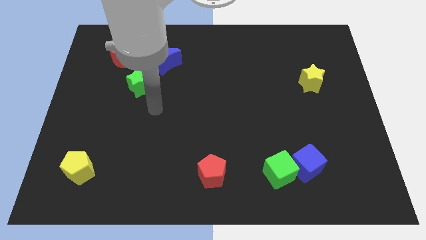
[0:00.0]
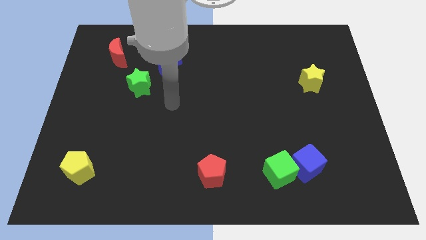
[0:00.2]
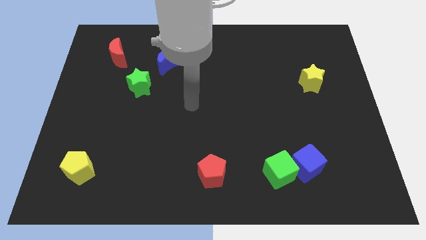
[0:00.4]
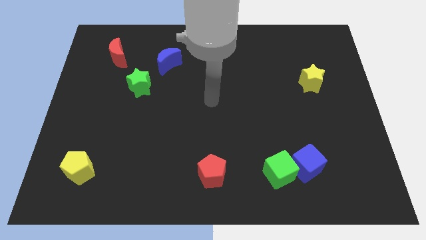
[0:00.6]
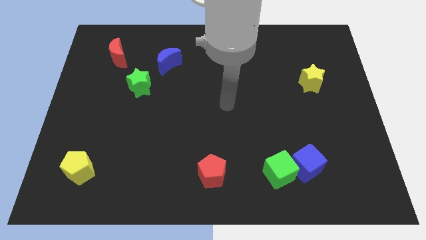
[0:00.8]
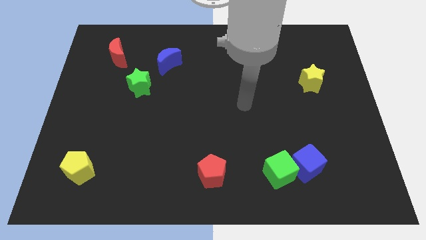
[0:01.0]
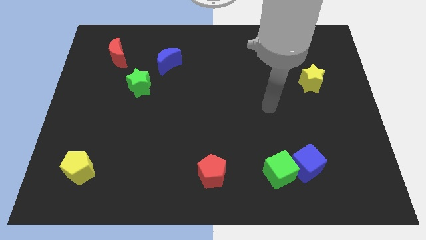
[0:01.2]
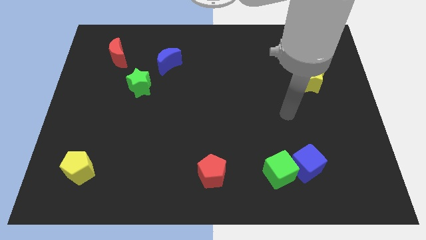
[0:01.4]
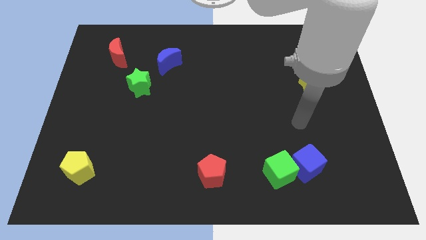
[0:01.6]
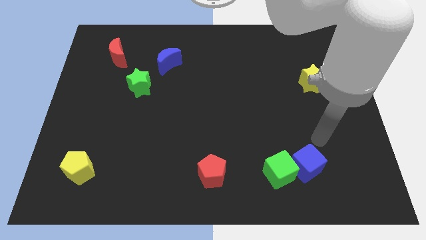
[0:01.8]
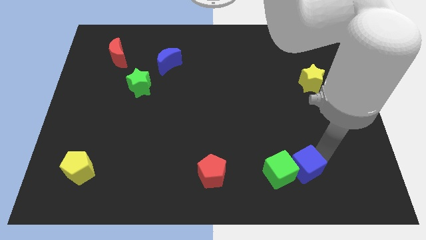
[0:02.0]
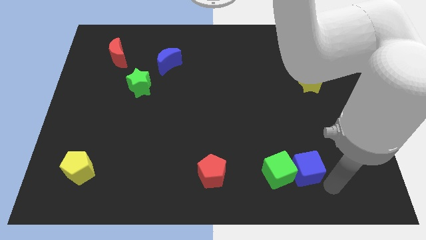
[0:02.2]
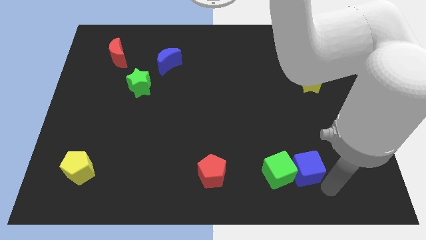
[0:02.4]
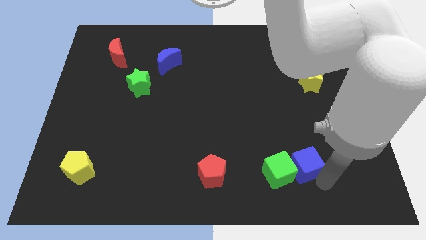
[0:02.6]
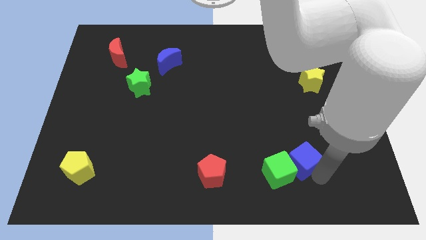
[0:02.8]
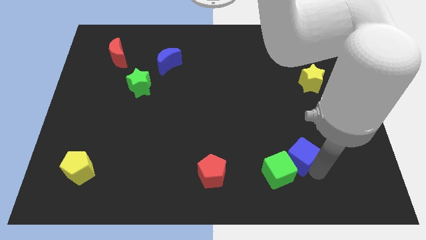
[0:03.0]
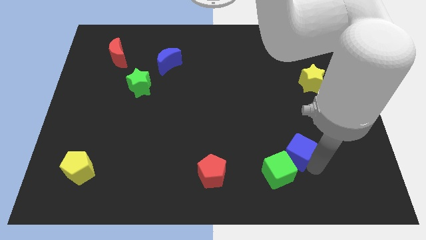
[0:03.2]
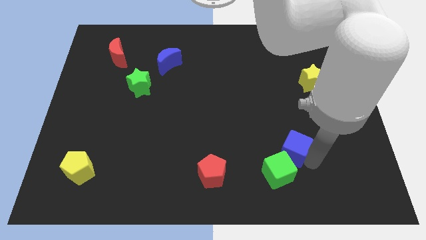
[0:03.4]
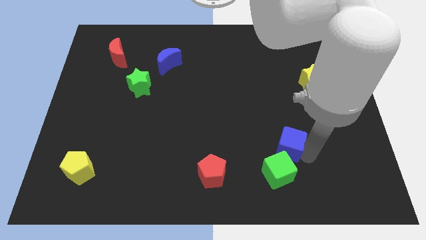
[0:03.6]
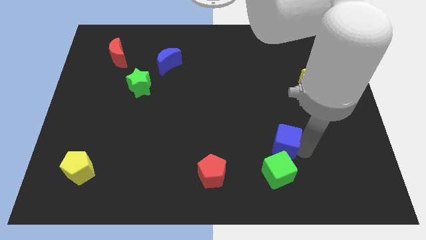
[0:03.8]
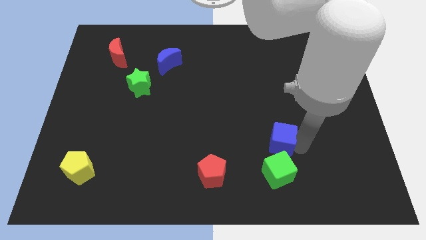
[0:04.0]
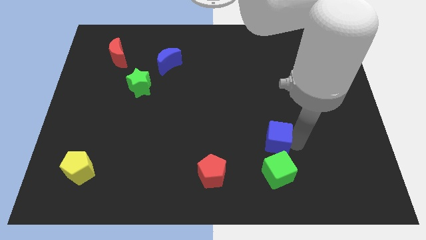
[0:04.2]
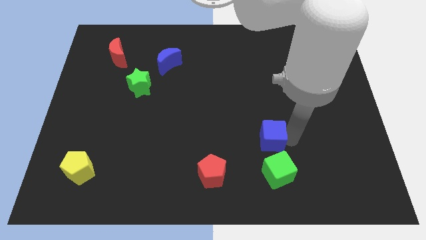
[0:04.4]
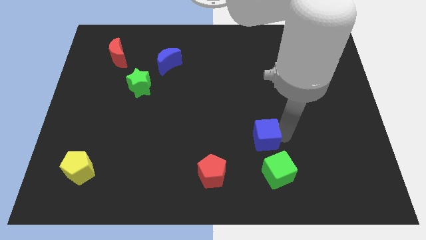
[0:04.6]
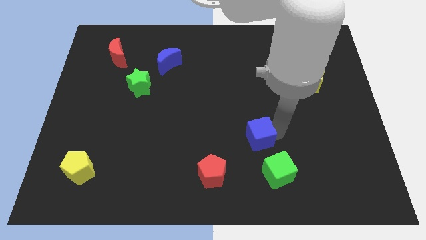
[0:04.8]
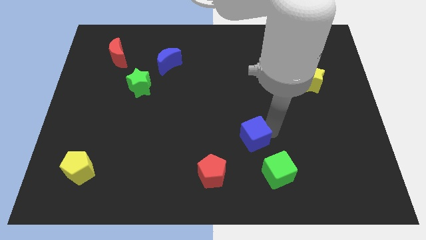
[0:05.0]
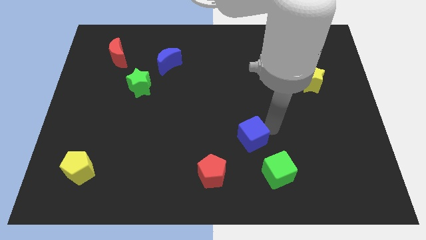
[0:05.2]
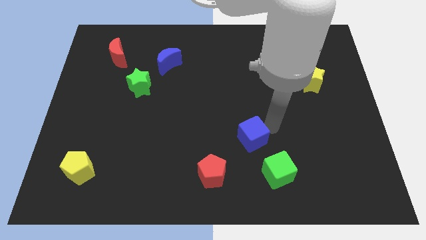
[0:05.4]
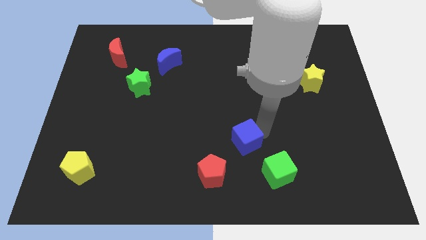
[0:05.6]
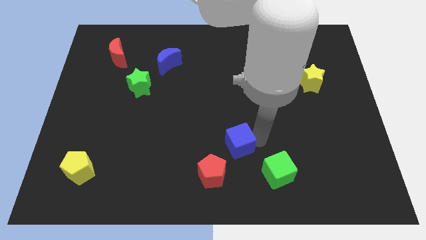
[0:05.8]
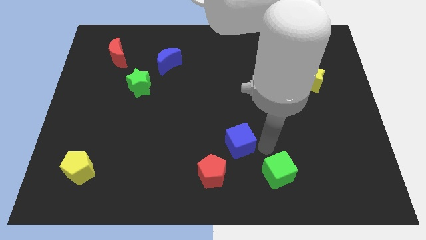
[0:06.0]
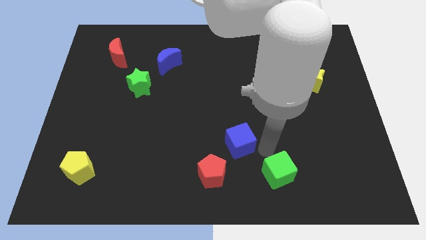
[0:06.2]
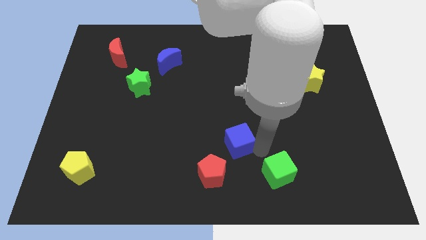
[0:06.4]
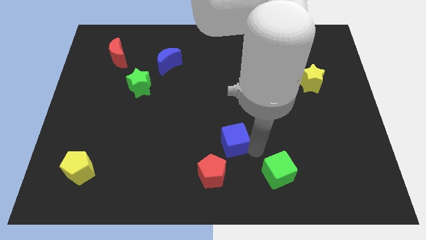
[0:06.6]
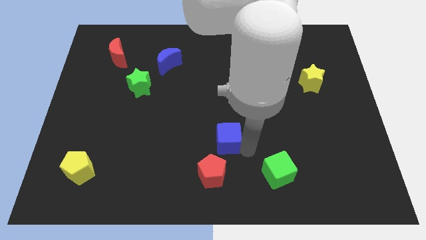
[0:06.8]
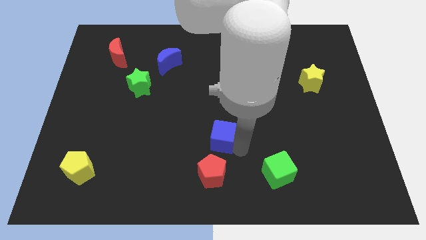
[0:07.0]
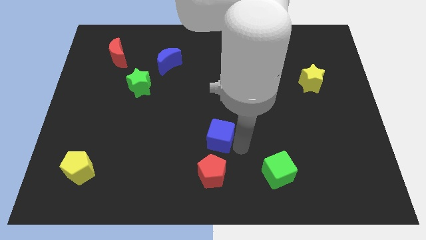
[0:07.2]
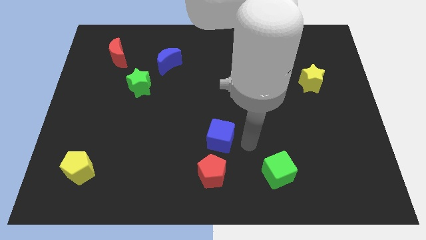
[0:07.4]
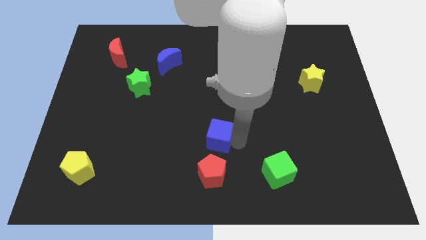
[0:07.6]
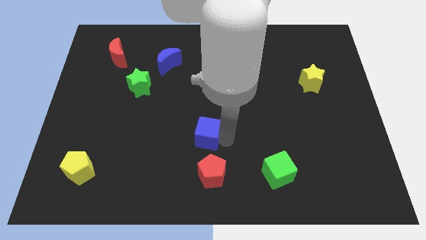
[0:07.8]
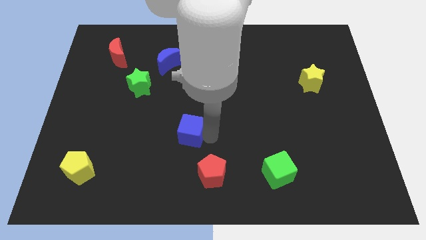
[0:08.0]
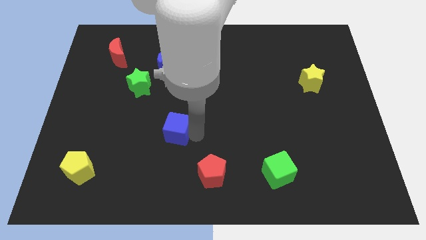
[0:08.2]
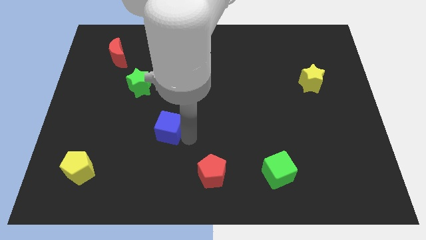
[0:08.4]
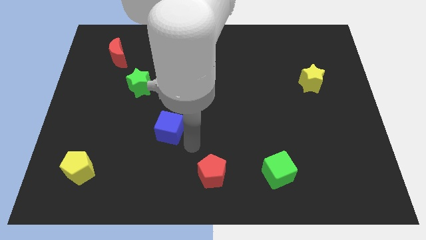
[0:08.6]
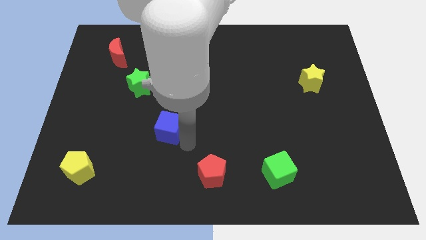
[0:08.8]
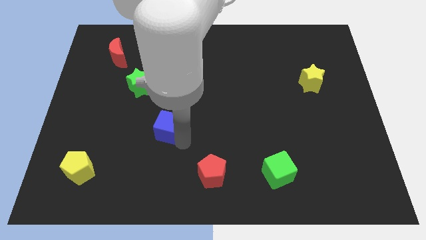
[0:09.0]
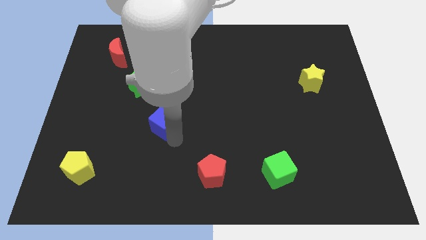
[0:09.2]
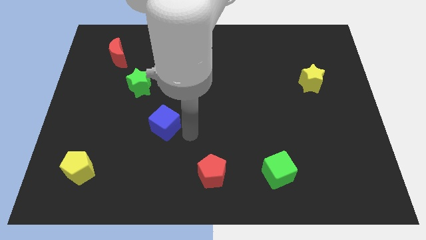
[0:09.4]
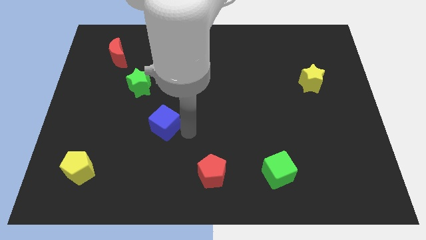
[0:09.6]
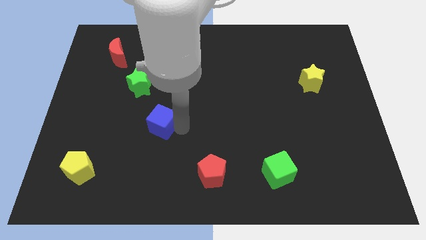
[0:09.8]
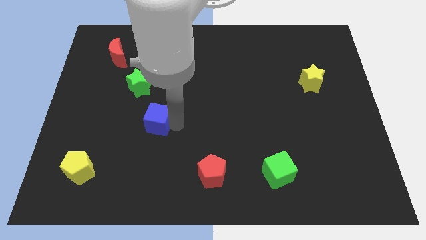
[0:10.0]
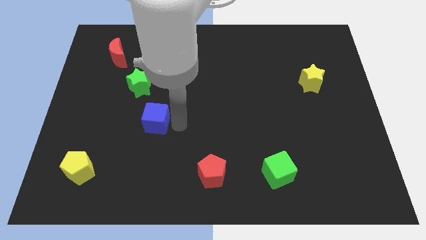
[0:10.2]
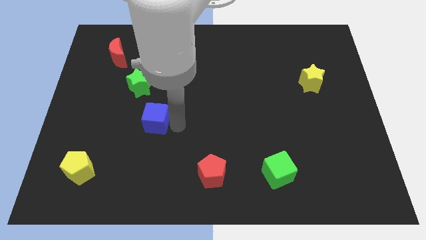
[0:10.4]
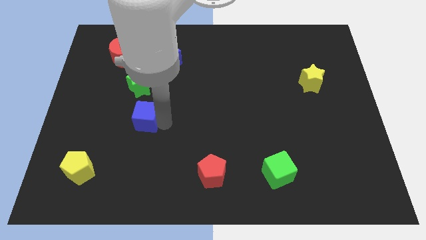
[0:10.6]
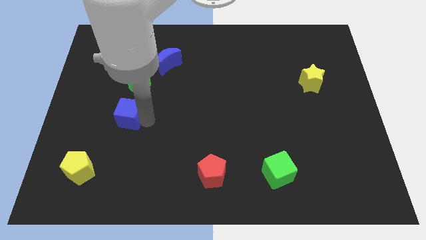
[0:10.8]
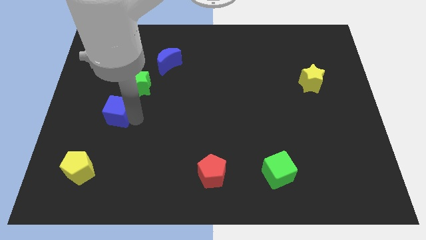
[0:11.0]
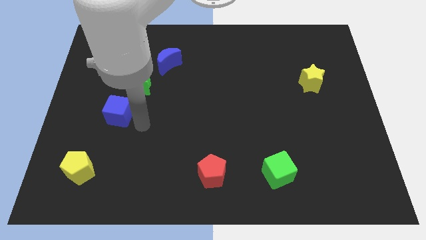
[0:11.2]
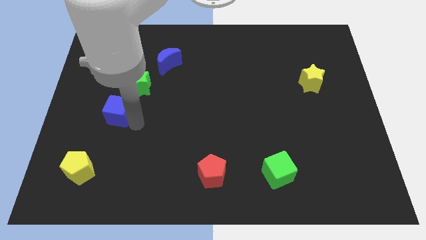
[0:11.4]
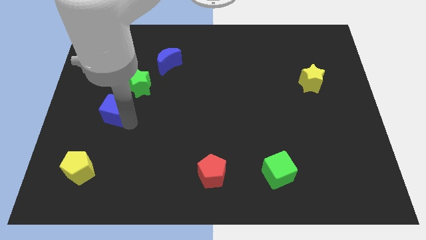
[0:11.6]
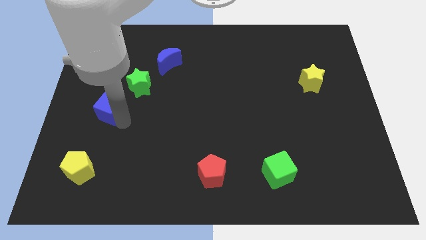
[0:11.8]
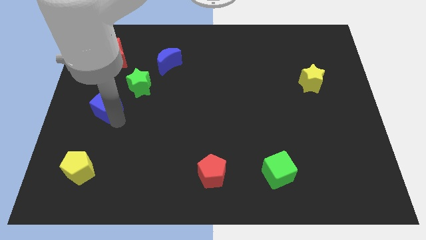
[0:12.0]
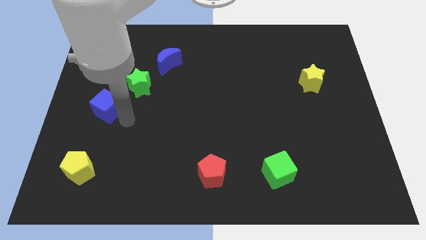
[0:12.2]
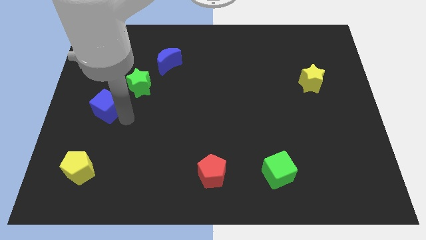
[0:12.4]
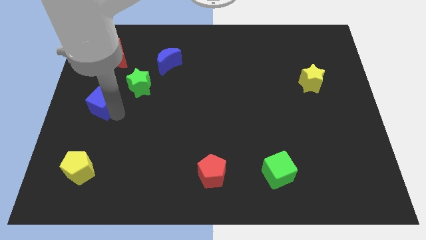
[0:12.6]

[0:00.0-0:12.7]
slide the blue cube to the left side of the board

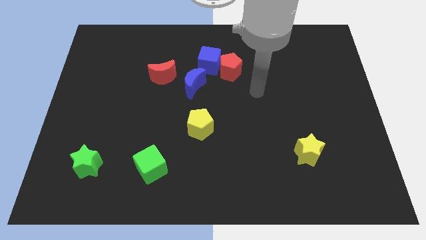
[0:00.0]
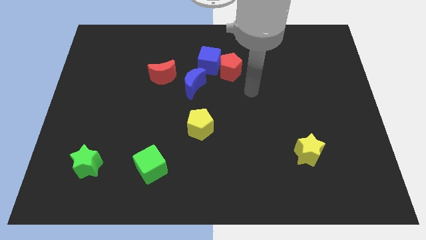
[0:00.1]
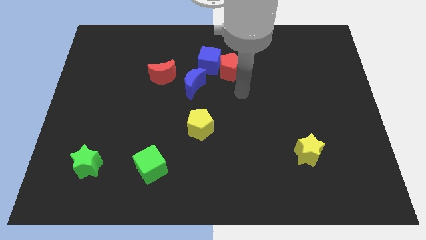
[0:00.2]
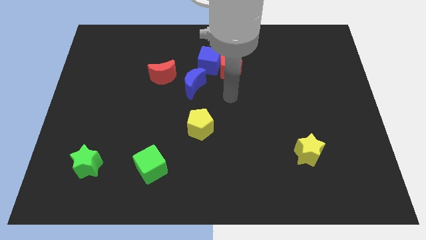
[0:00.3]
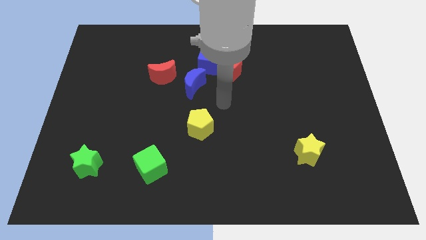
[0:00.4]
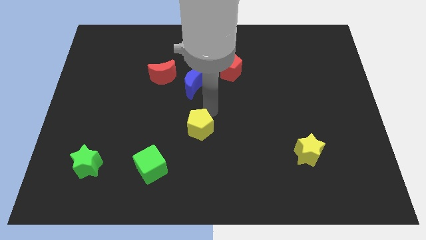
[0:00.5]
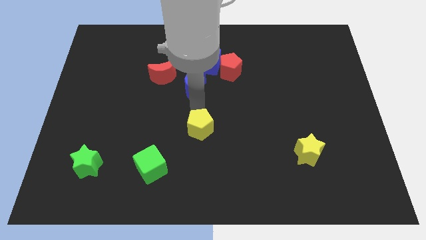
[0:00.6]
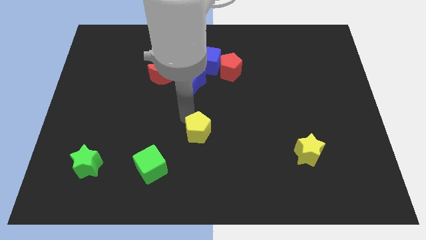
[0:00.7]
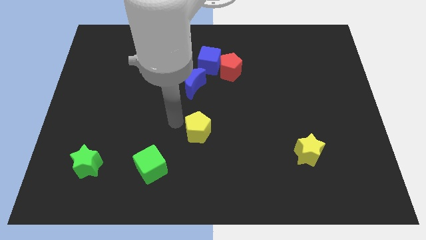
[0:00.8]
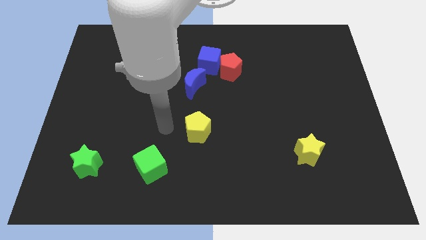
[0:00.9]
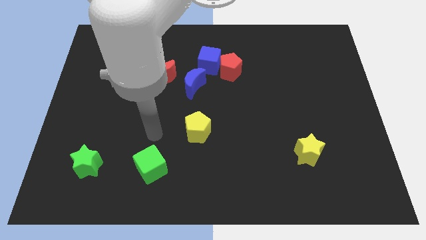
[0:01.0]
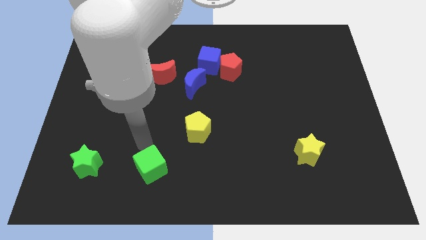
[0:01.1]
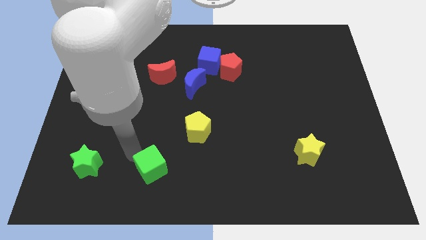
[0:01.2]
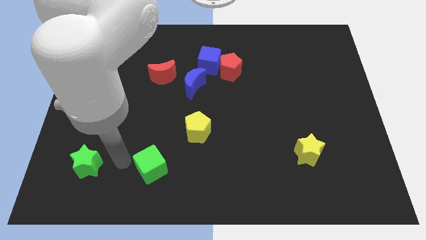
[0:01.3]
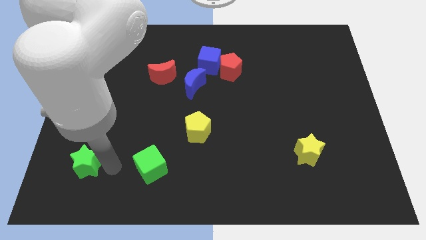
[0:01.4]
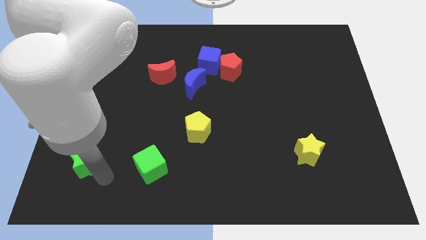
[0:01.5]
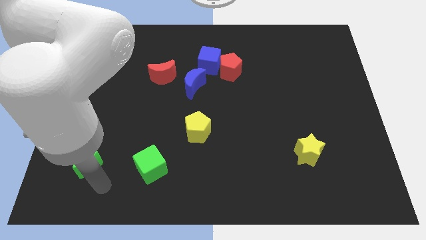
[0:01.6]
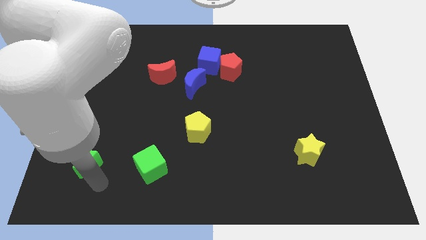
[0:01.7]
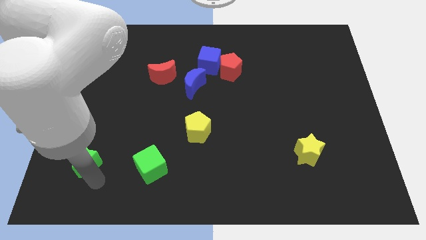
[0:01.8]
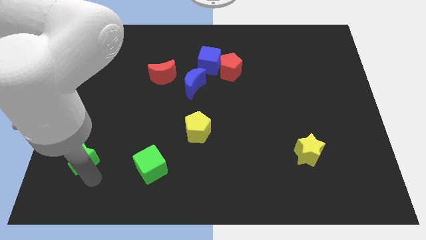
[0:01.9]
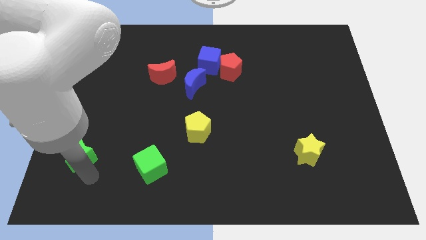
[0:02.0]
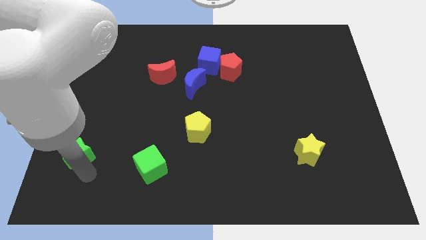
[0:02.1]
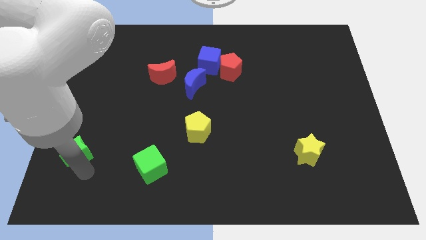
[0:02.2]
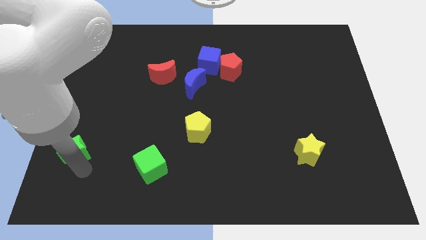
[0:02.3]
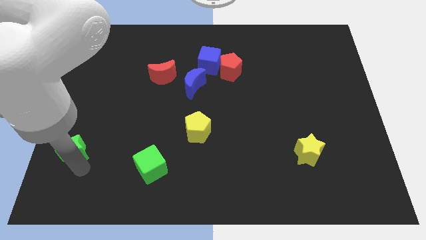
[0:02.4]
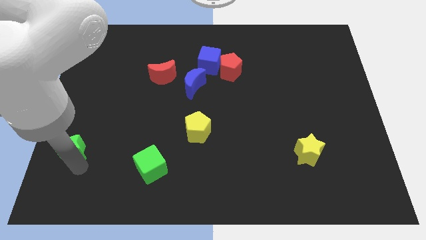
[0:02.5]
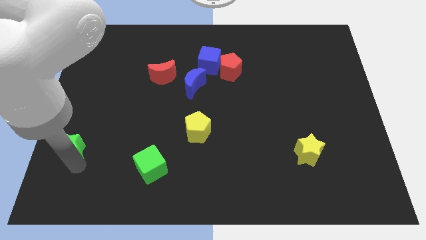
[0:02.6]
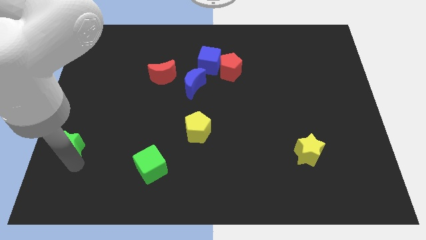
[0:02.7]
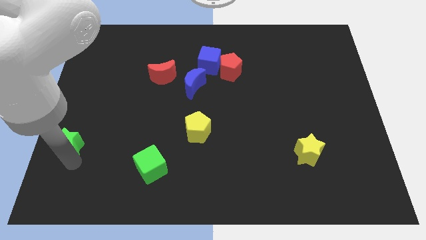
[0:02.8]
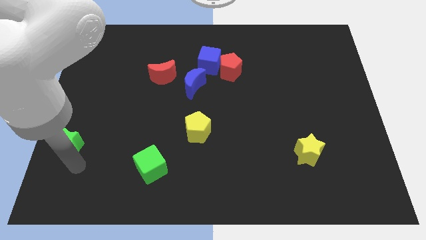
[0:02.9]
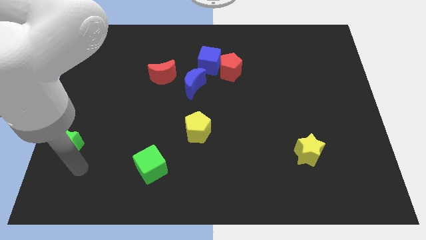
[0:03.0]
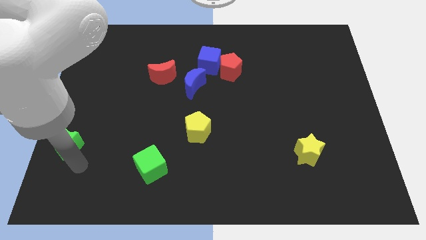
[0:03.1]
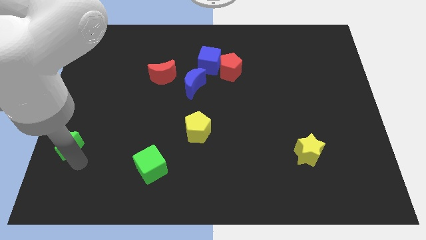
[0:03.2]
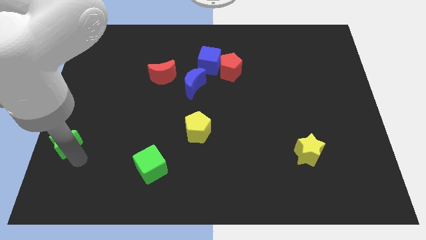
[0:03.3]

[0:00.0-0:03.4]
put the green star to the center left
